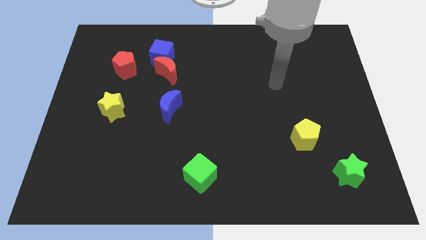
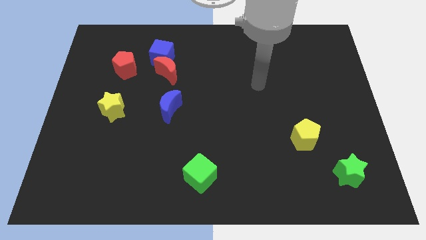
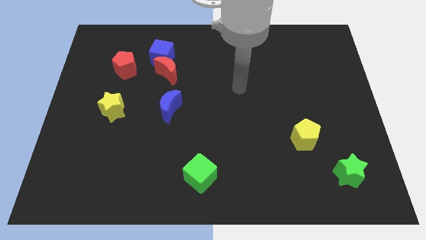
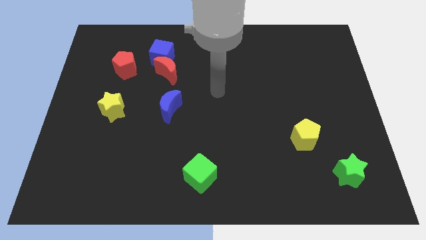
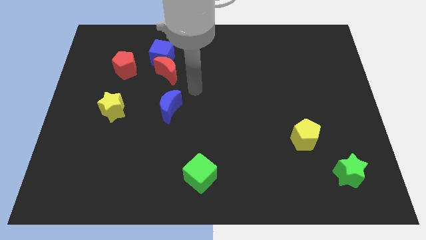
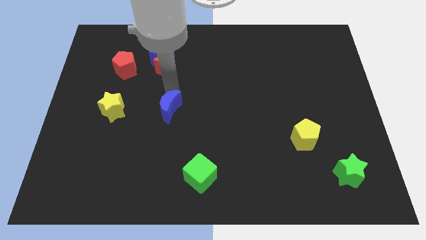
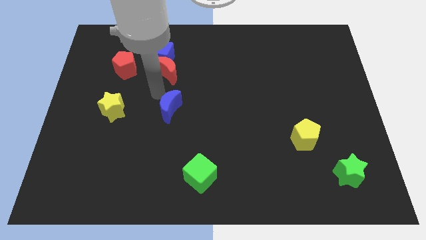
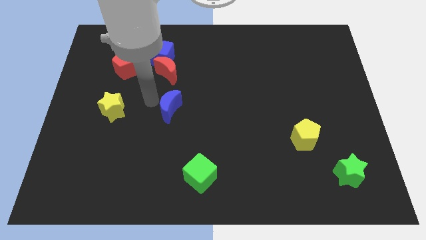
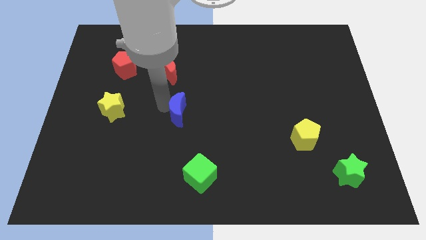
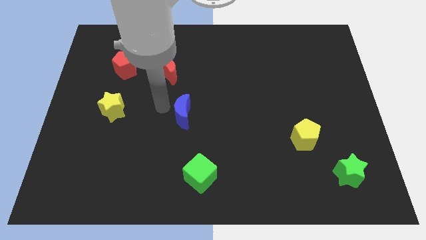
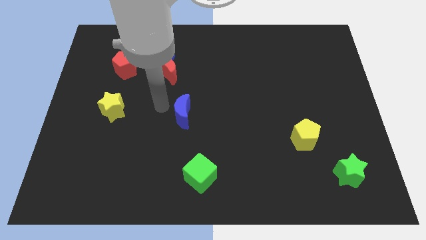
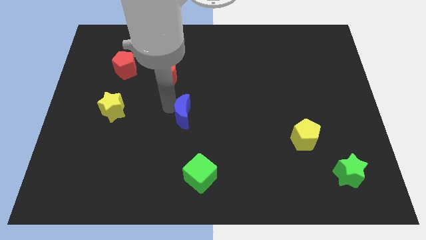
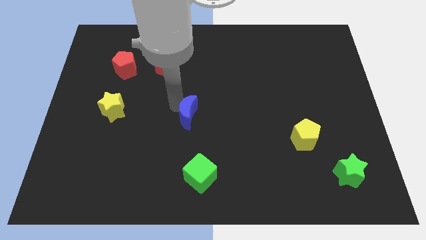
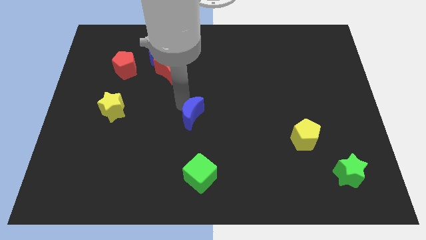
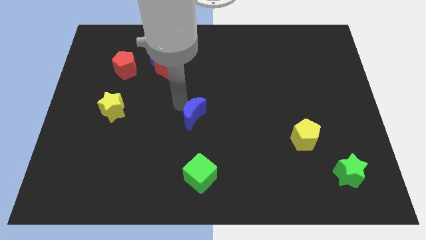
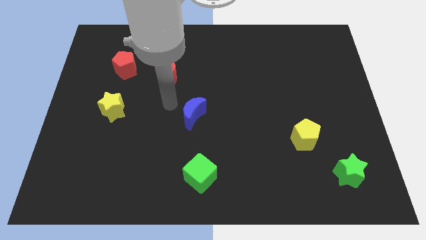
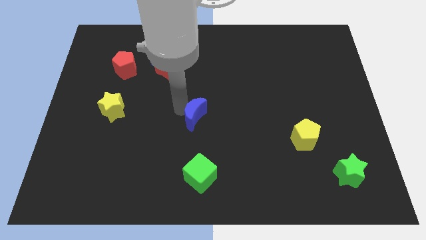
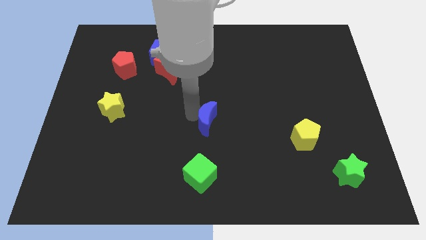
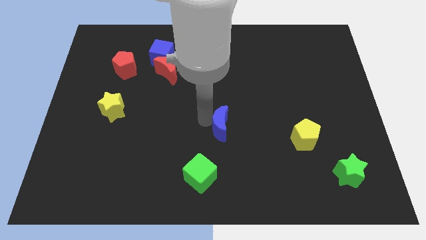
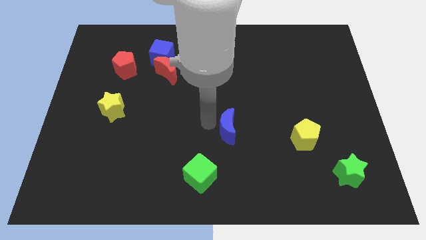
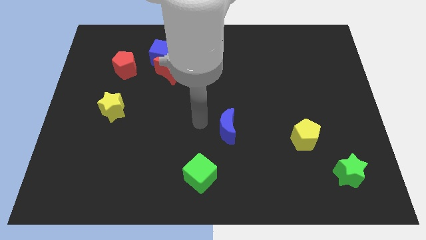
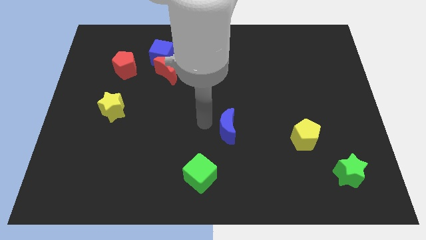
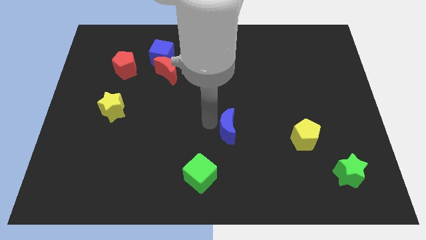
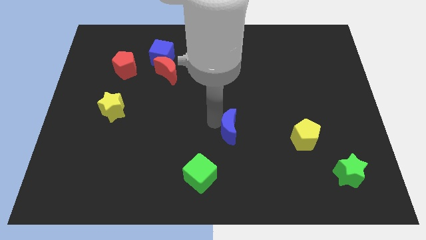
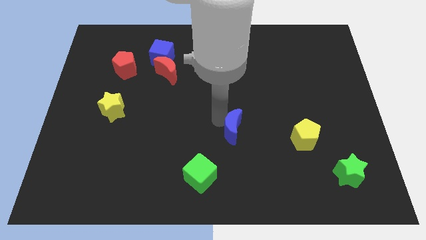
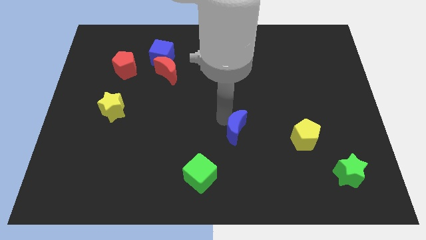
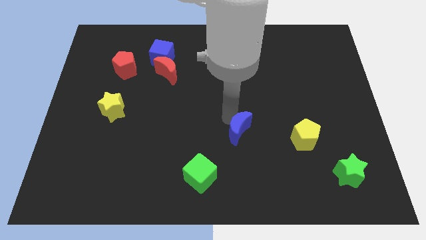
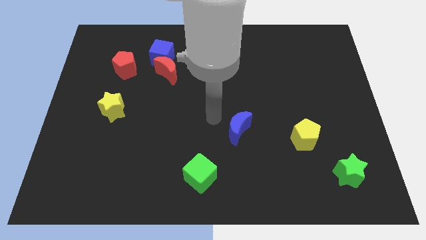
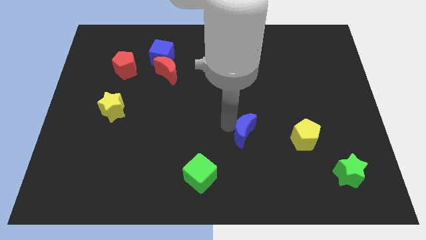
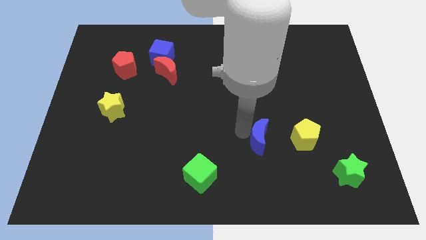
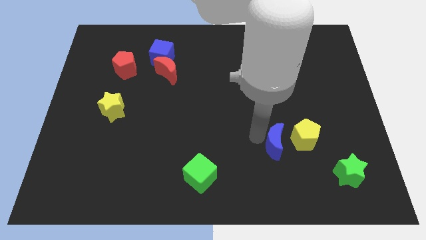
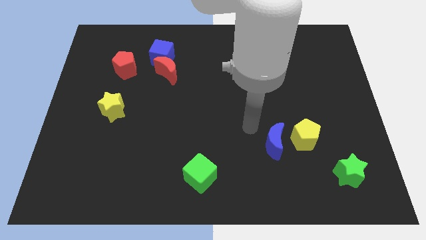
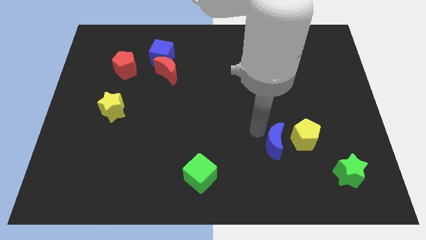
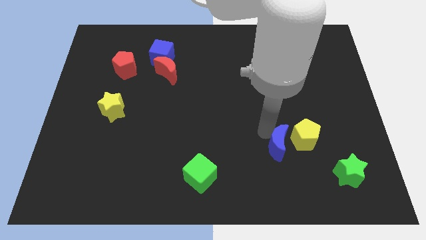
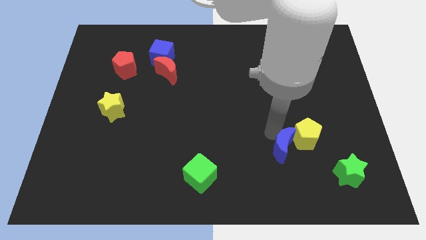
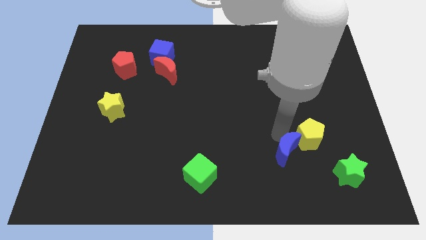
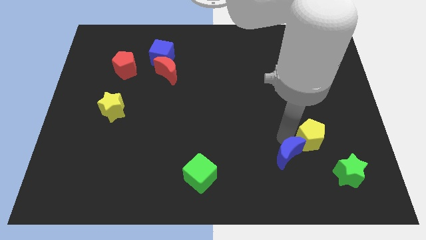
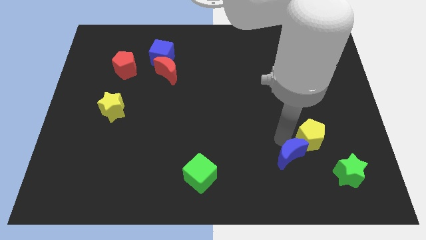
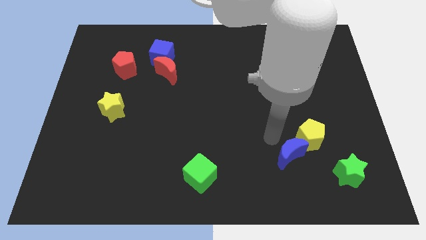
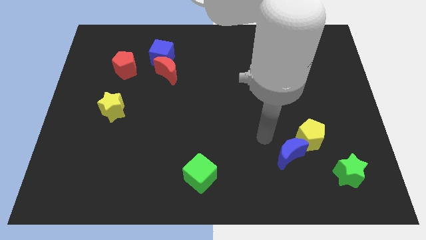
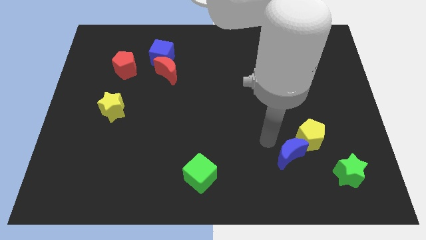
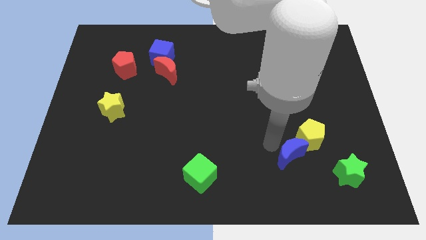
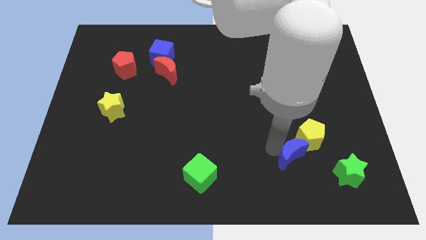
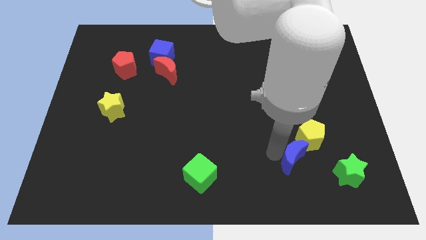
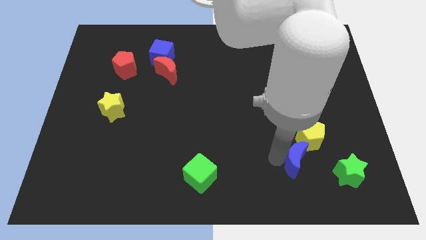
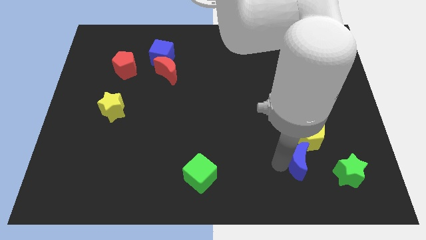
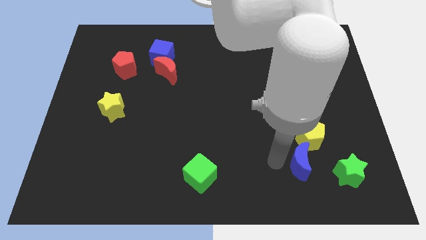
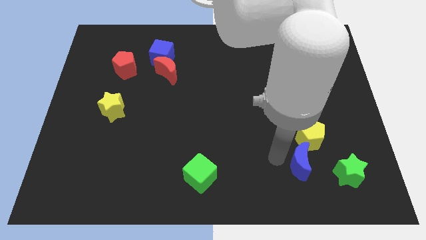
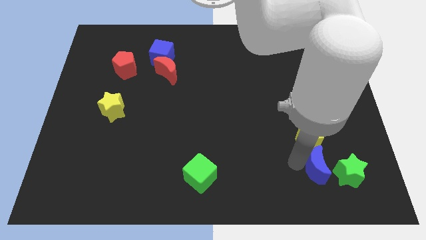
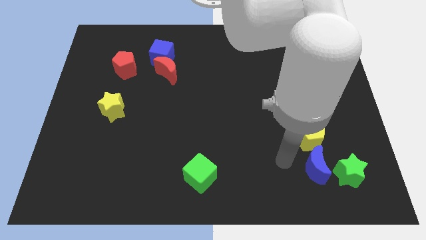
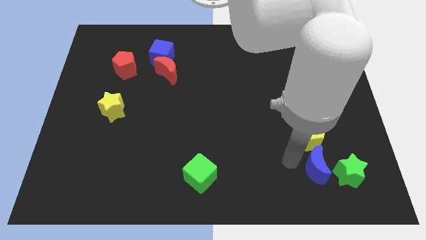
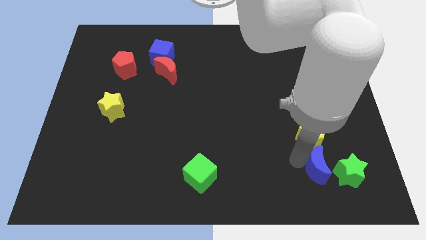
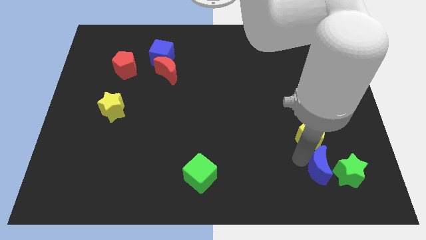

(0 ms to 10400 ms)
put the blue moon towards the green star

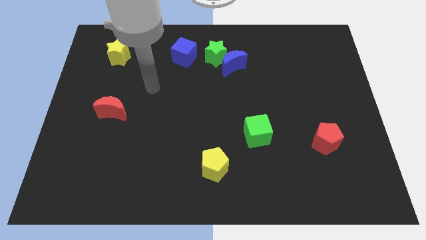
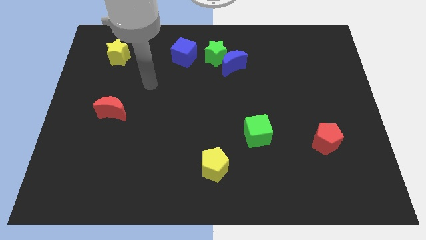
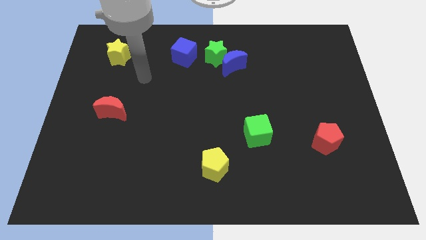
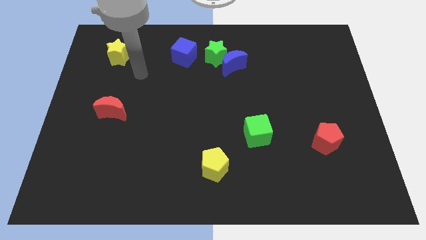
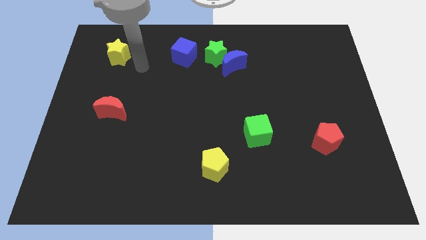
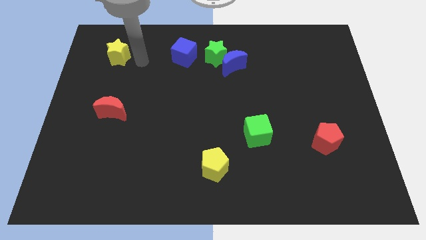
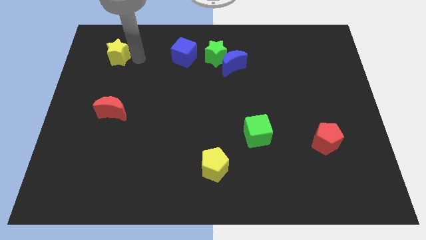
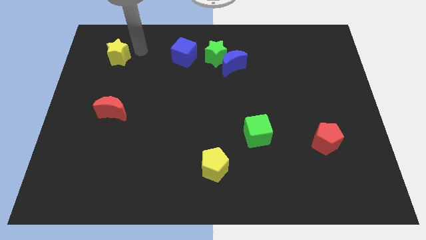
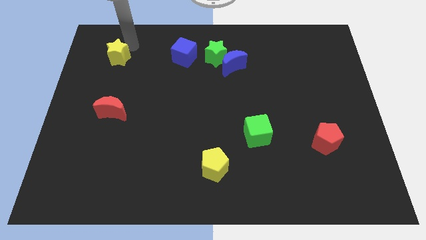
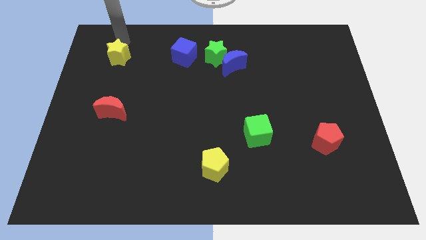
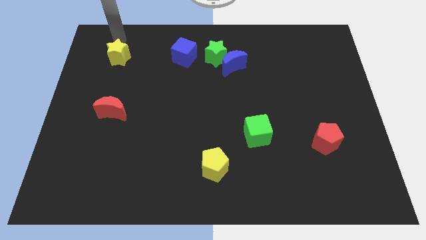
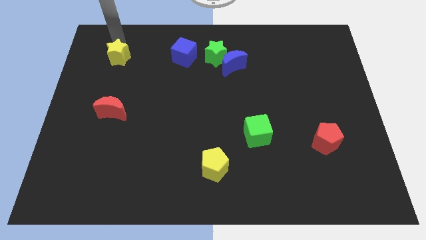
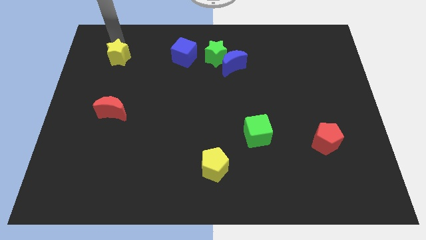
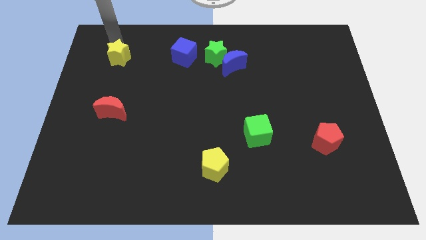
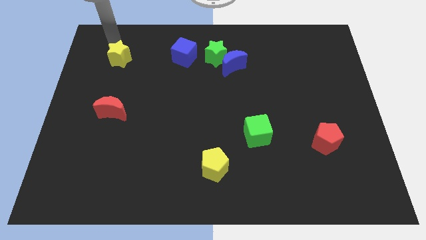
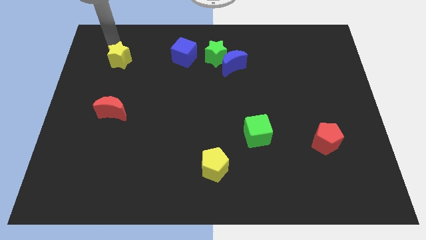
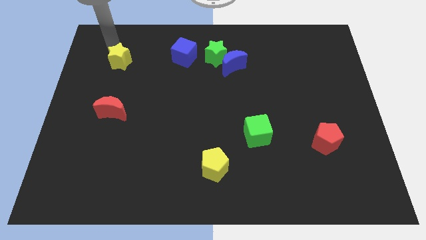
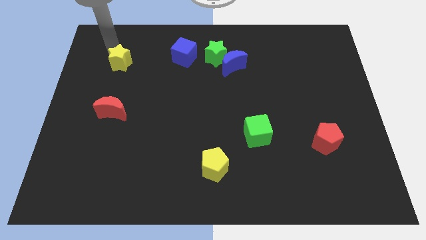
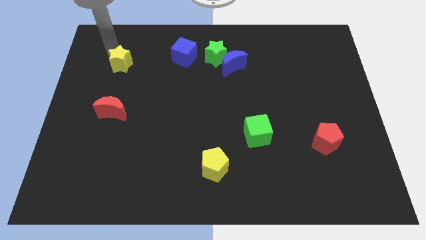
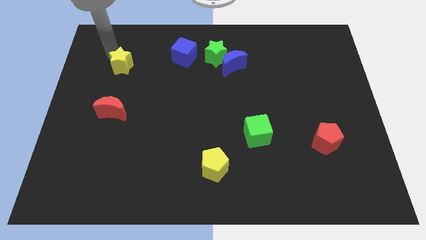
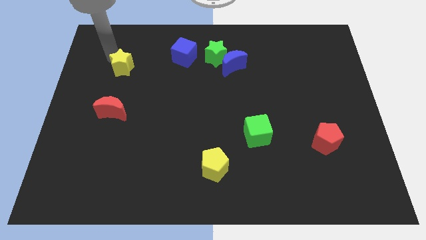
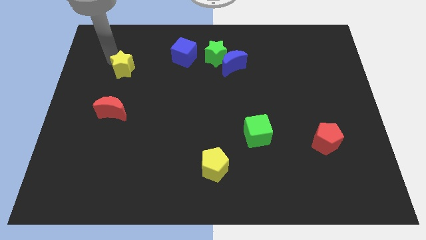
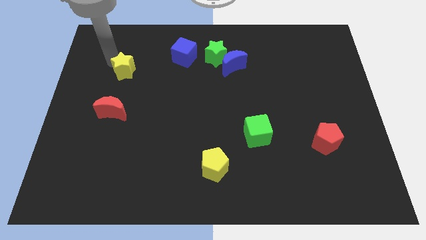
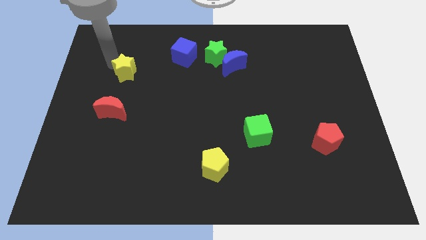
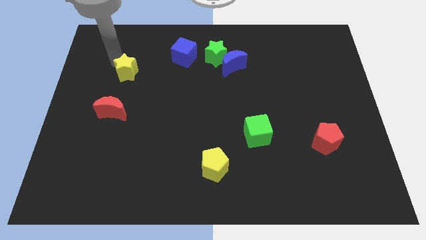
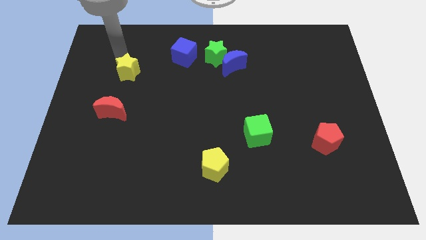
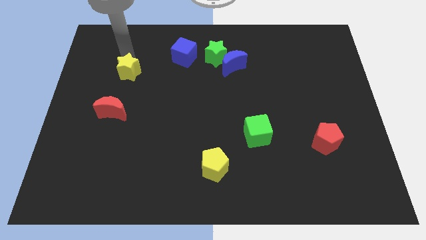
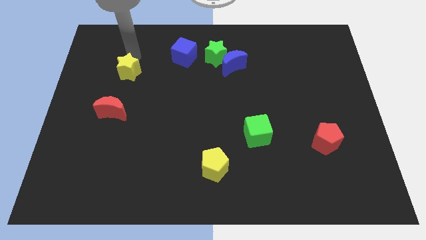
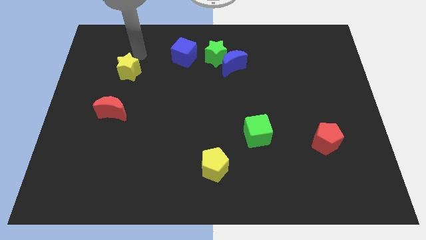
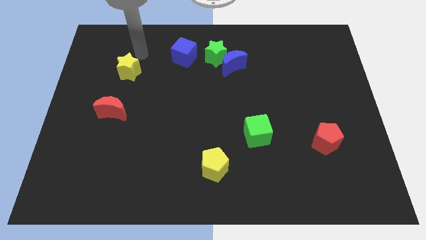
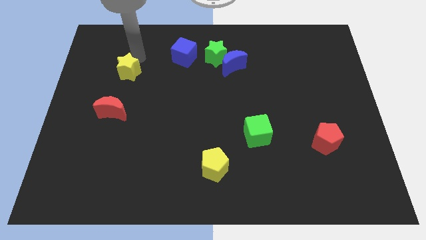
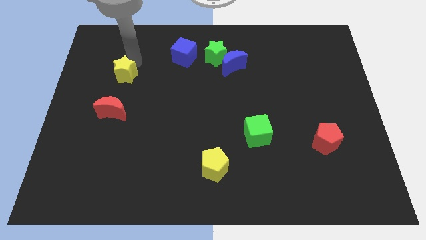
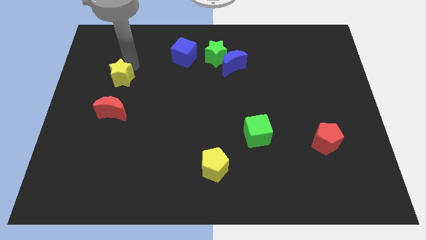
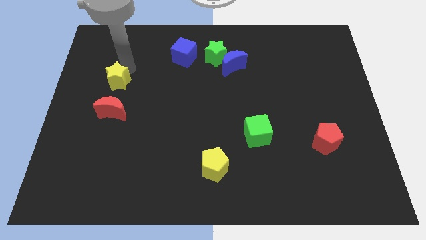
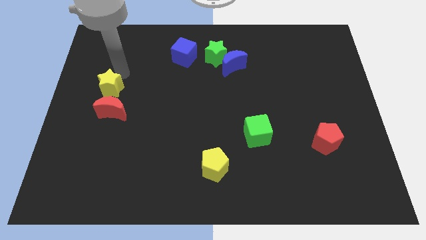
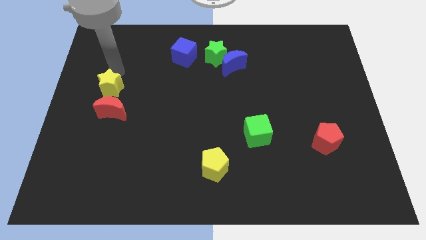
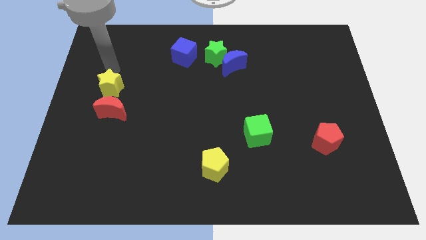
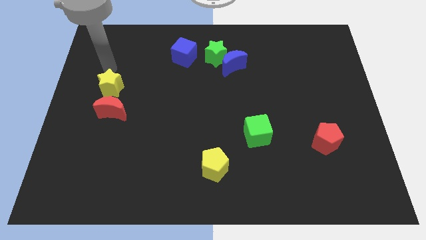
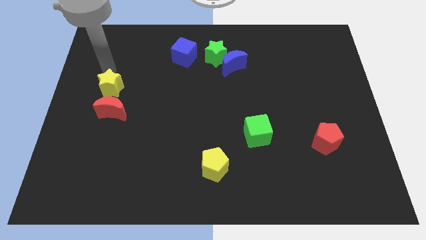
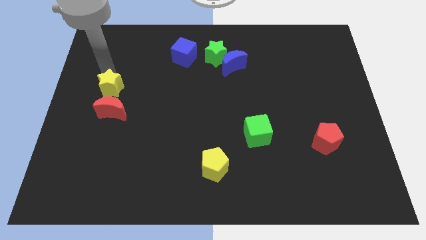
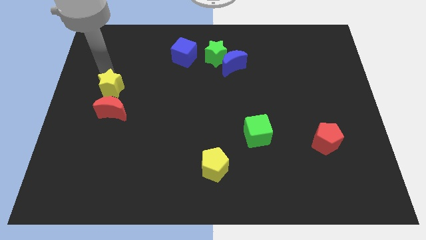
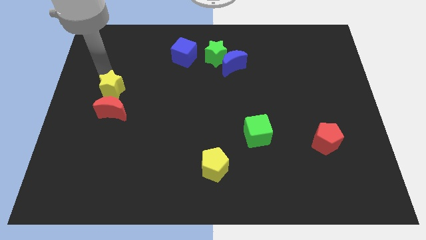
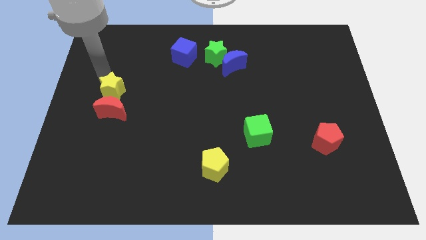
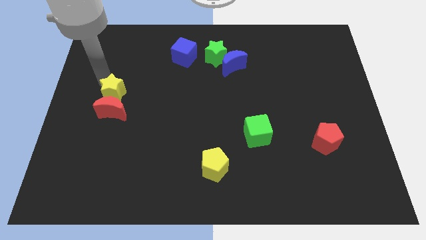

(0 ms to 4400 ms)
push the yellow star towards the red moon
